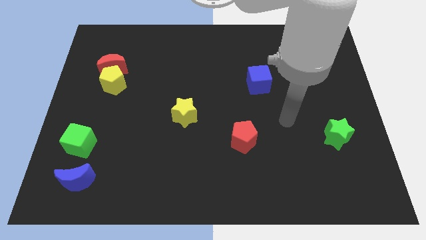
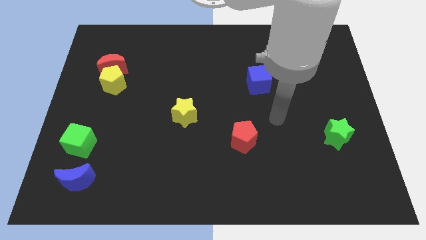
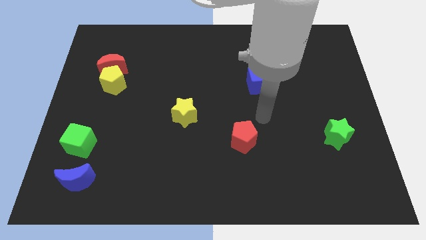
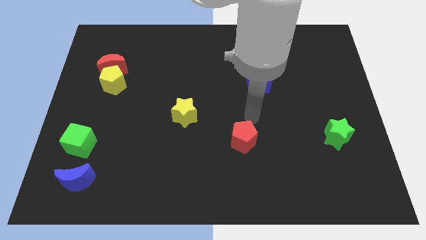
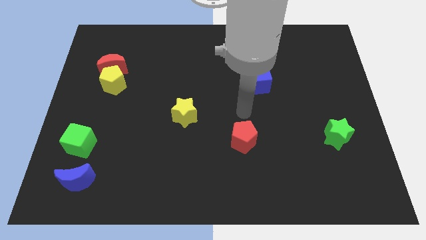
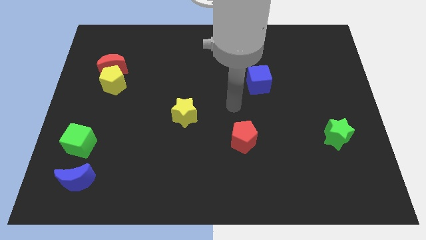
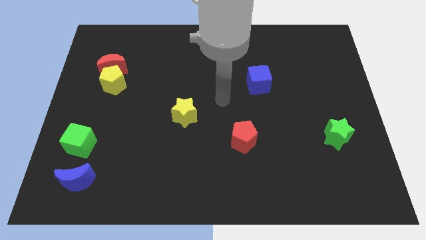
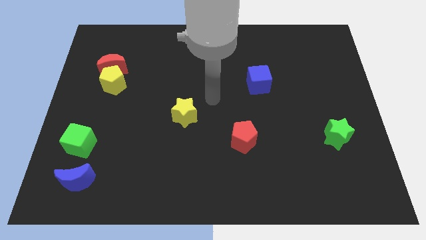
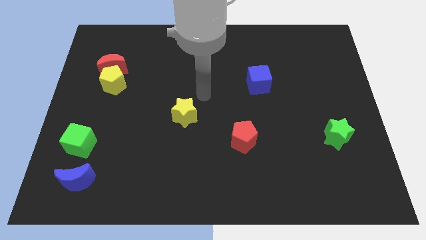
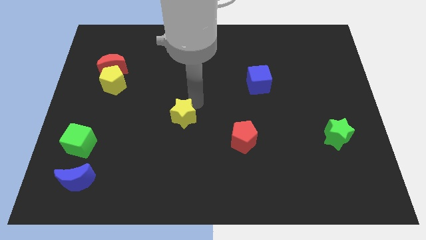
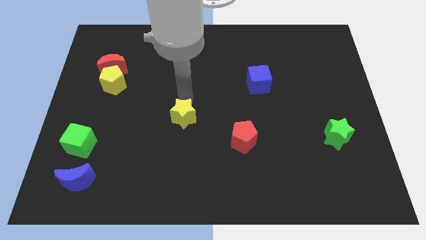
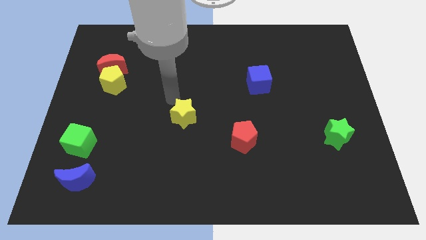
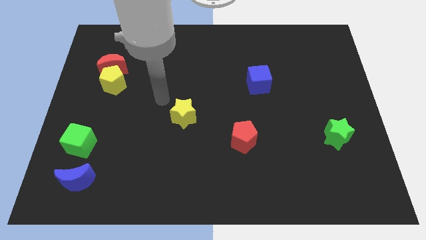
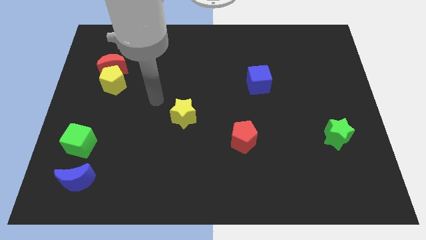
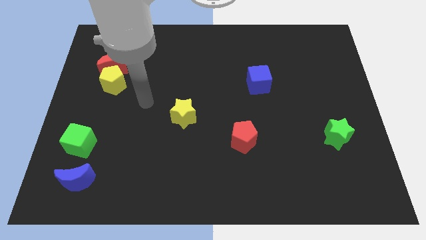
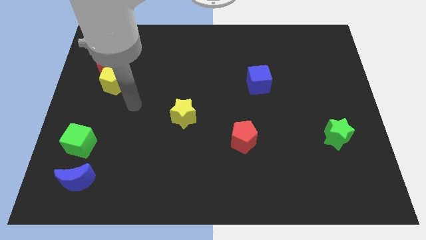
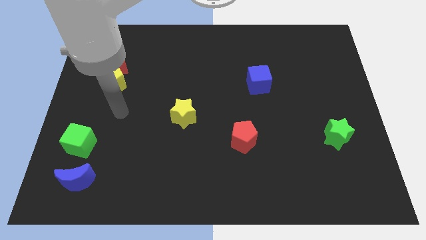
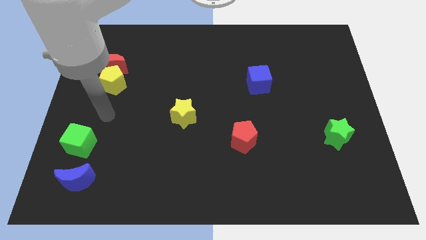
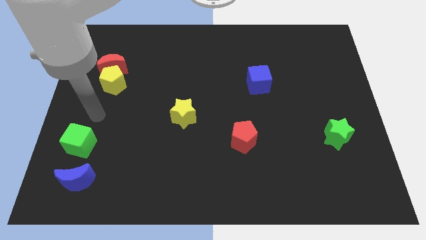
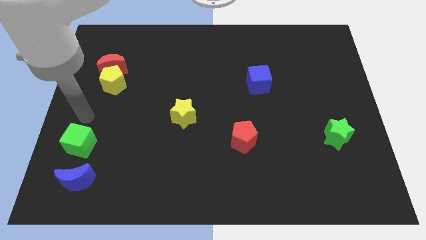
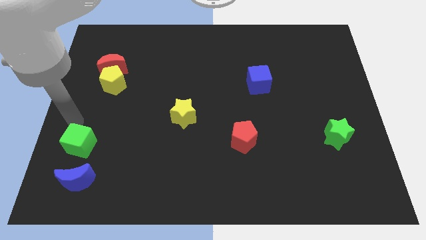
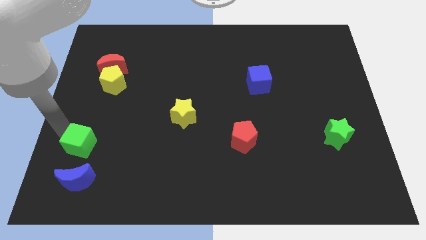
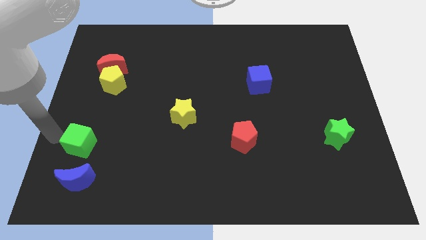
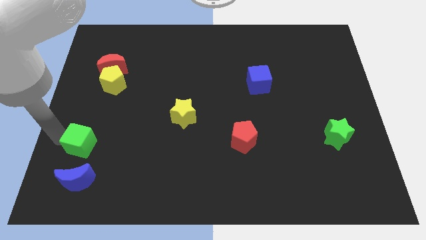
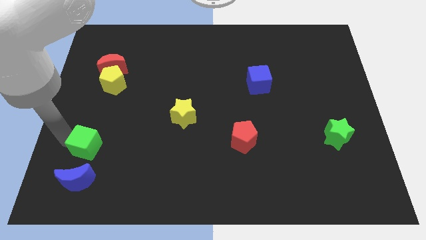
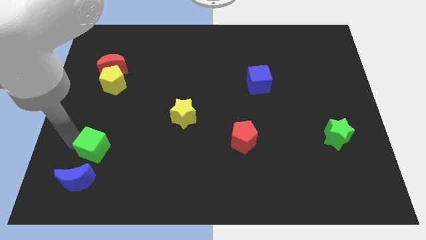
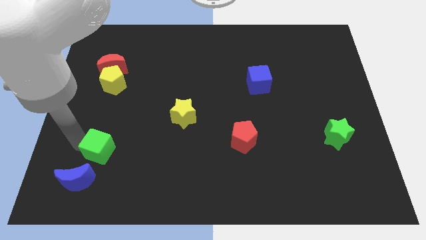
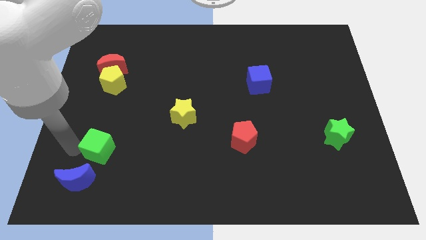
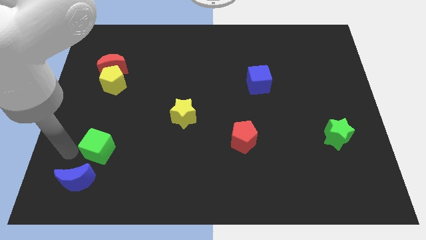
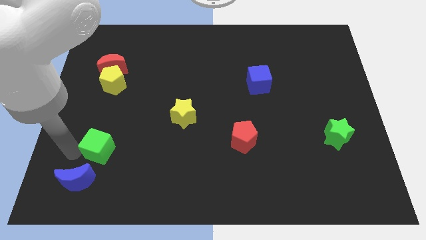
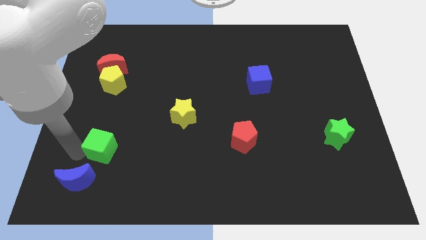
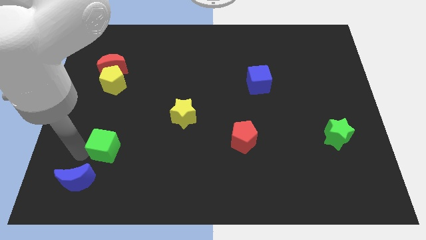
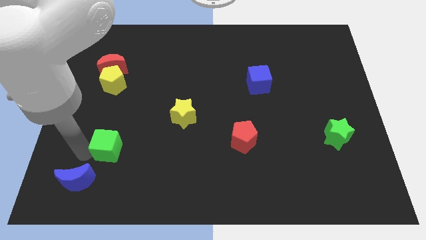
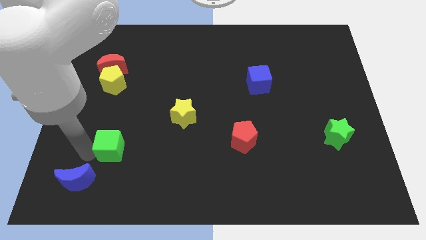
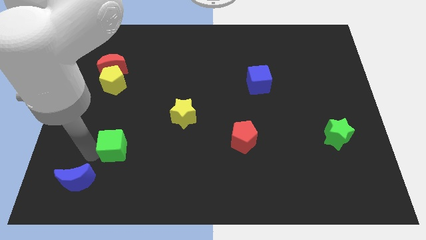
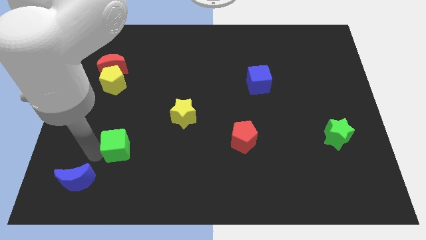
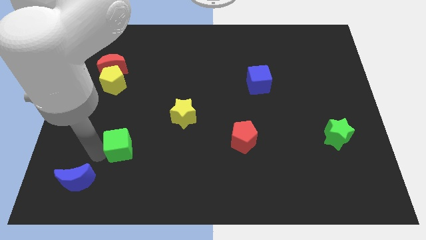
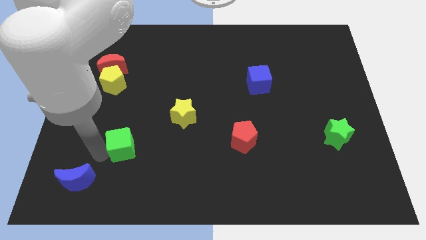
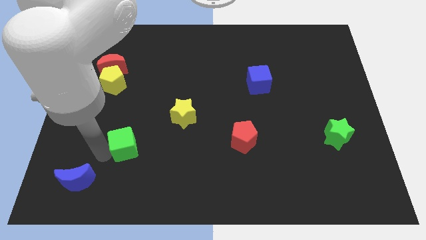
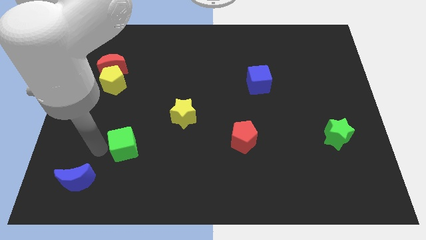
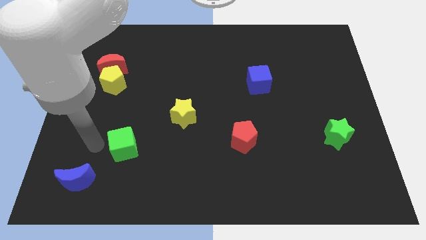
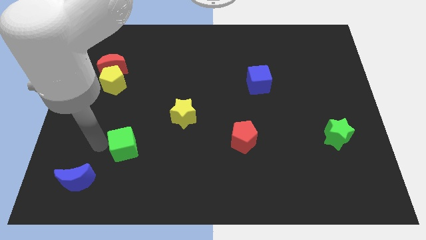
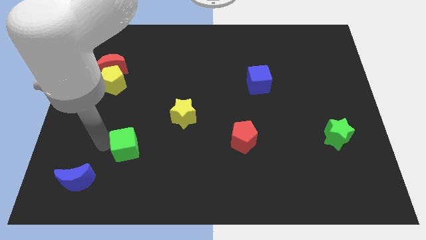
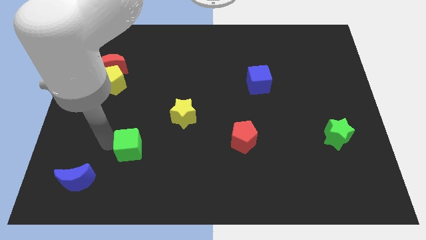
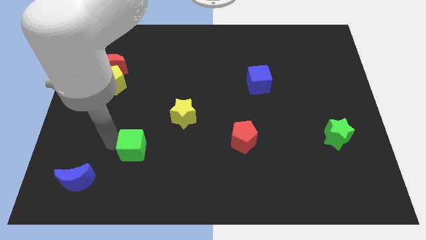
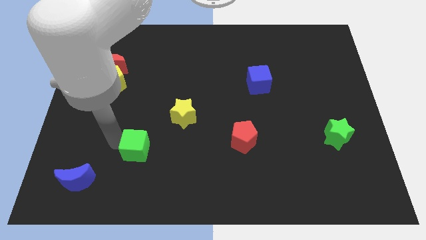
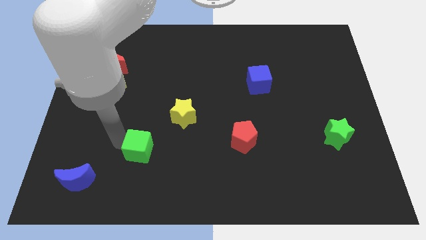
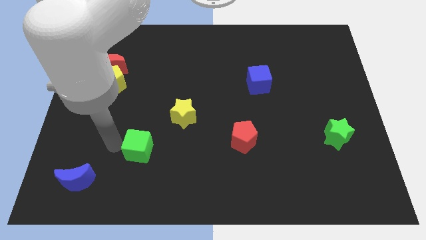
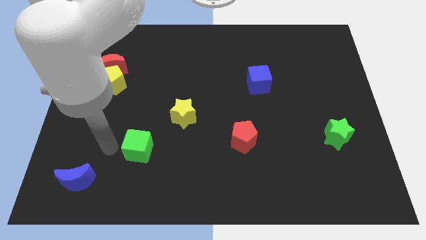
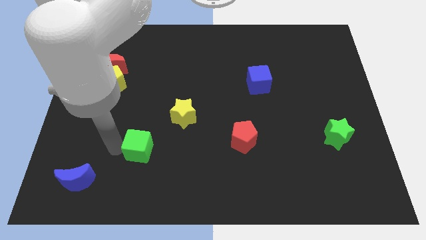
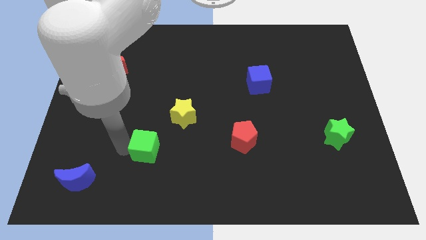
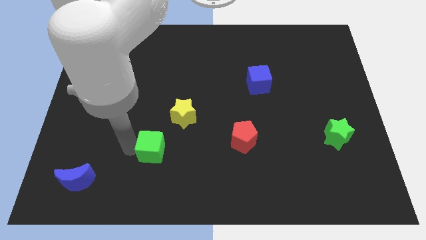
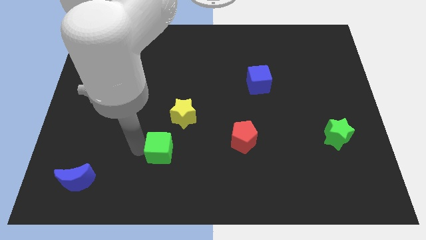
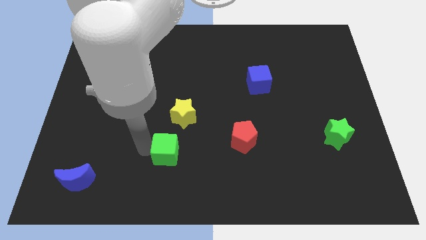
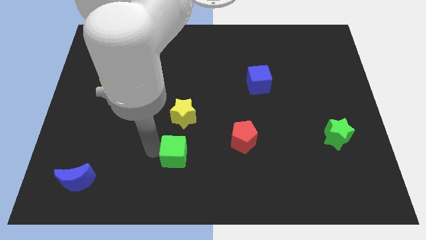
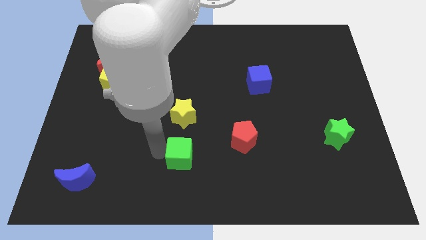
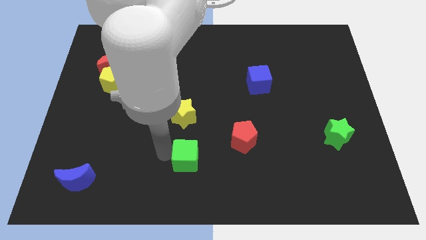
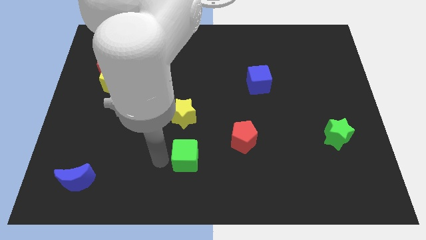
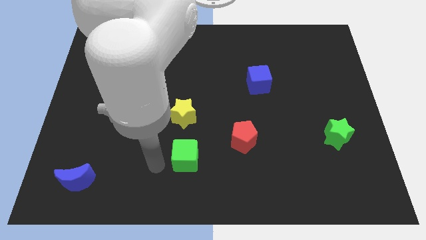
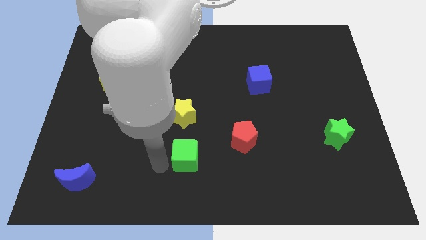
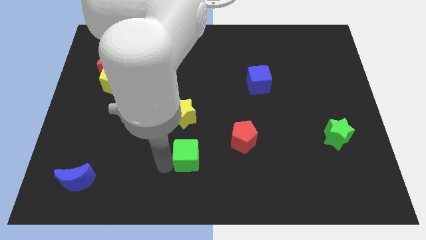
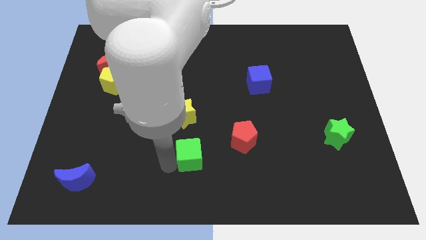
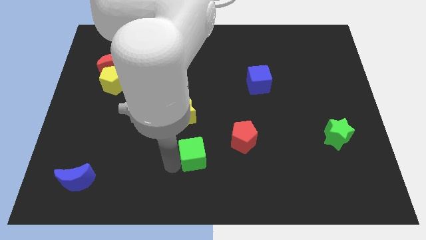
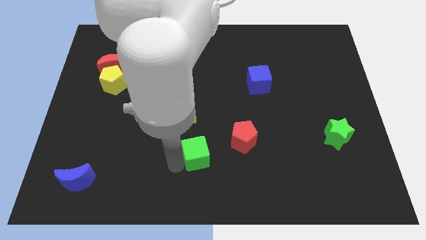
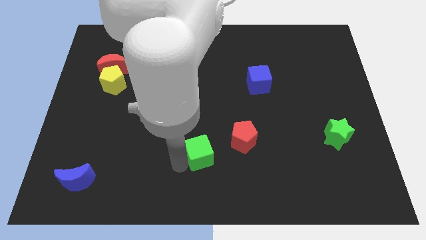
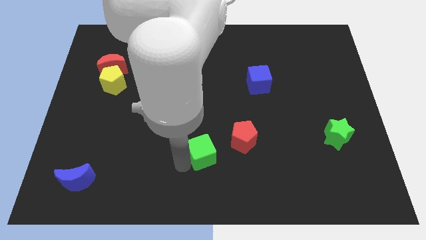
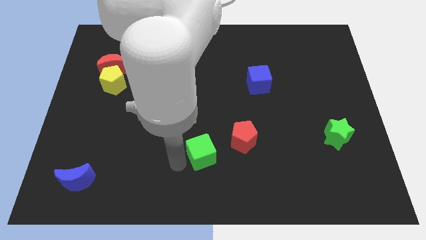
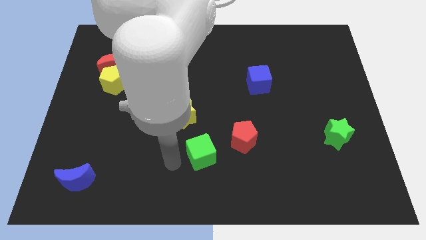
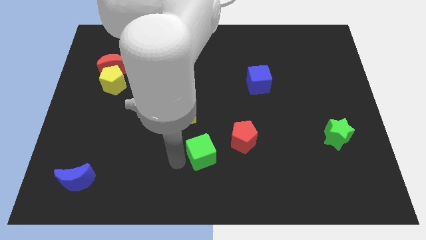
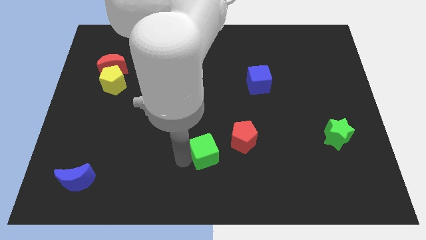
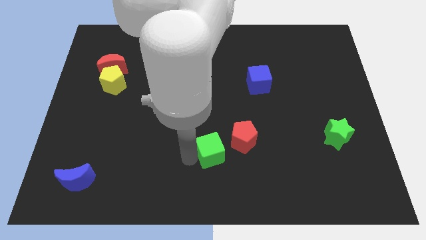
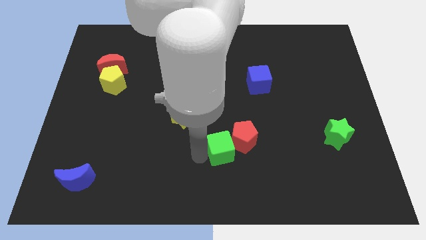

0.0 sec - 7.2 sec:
move the green cube close to the red pentagon

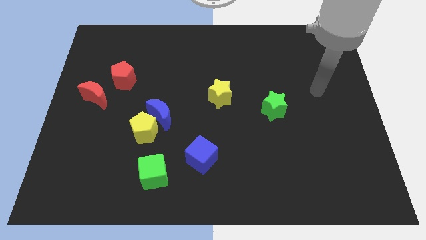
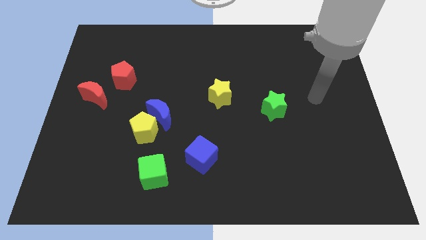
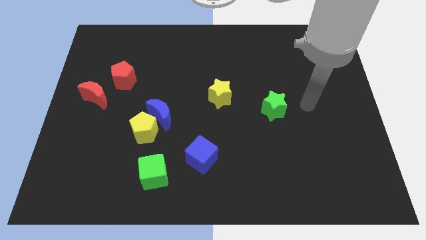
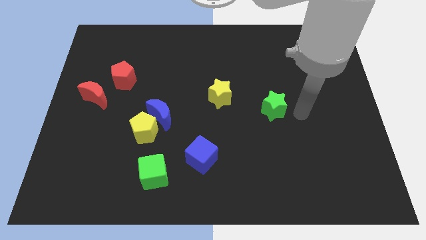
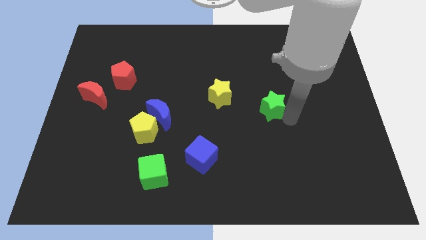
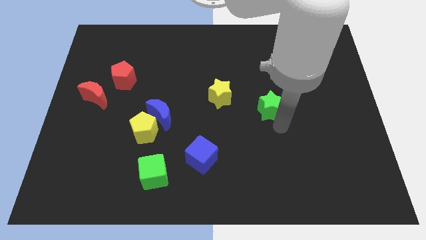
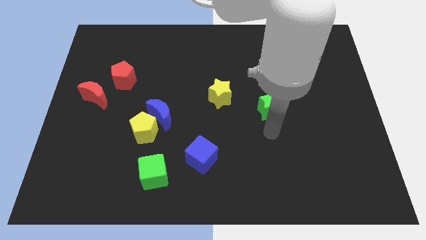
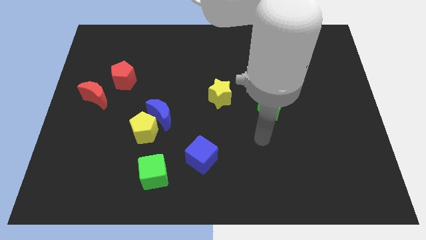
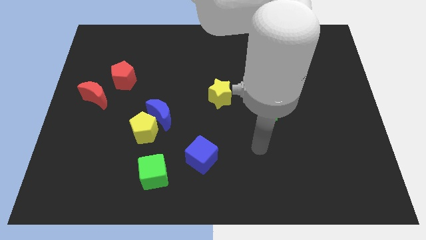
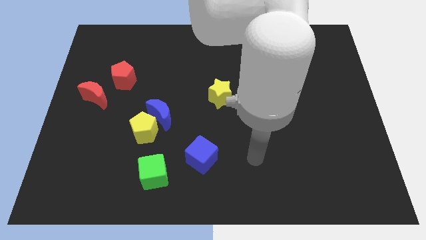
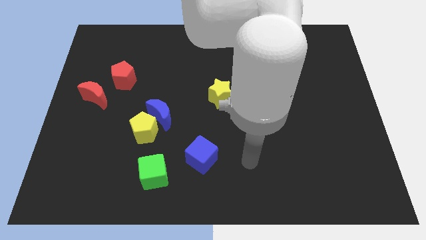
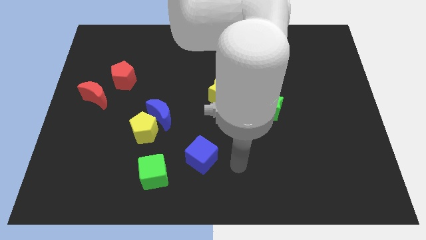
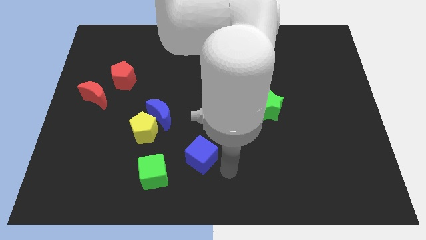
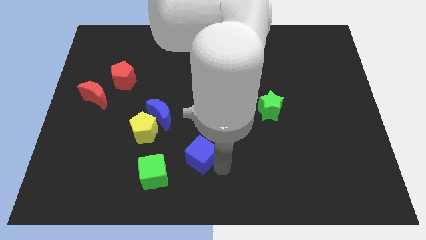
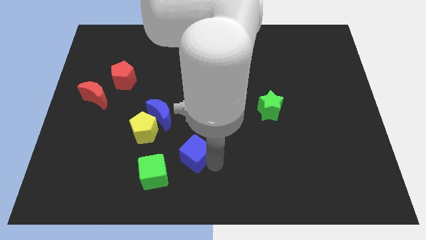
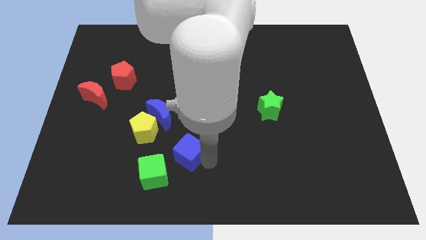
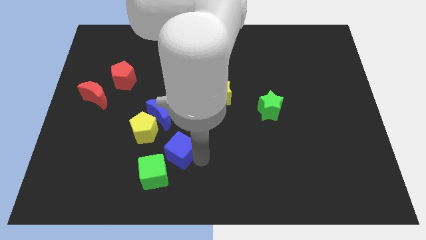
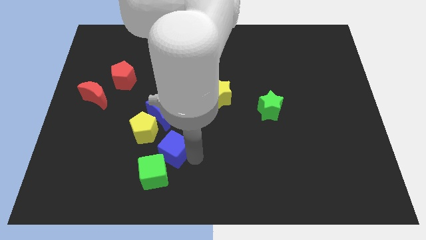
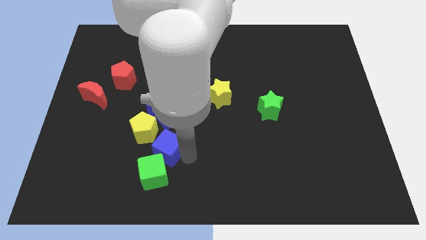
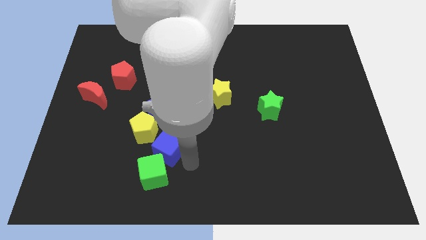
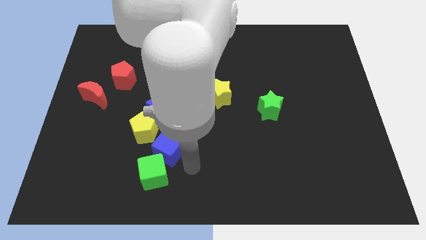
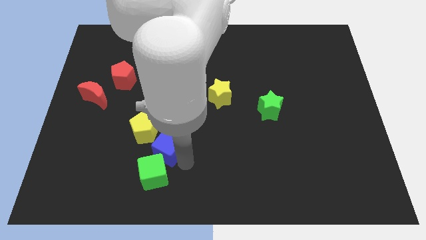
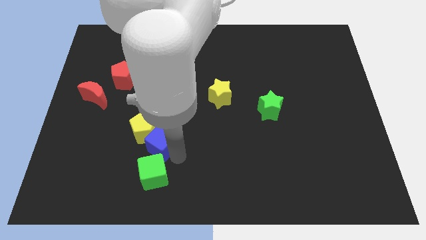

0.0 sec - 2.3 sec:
put the blue cube close to the yellow pentagon
